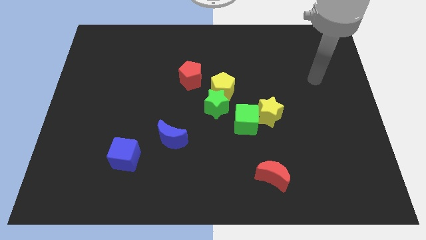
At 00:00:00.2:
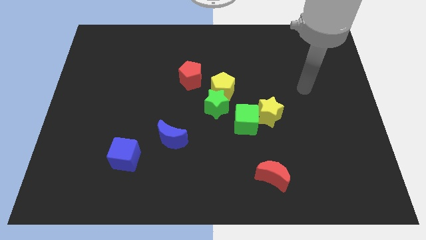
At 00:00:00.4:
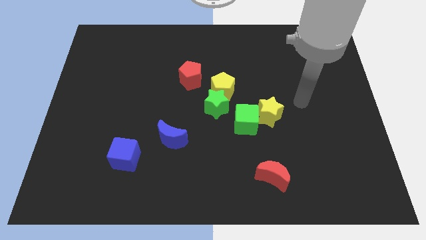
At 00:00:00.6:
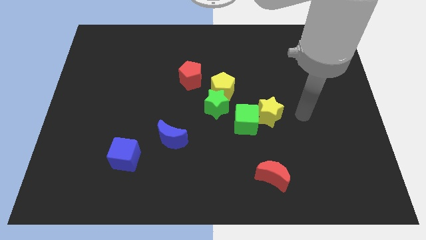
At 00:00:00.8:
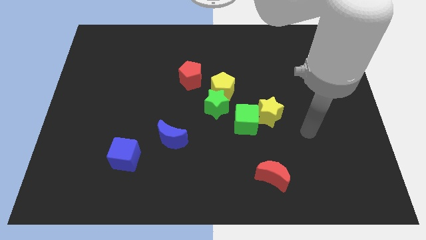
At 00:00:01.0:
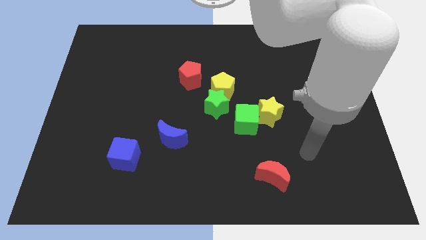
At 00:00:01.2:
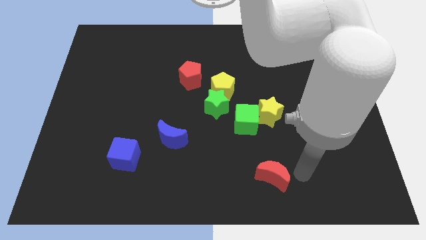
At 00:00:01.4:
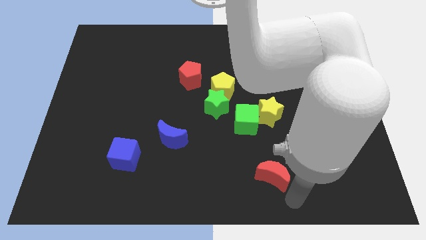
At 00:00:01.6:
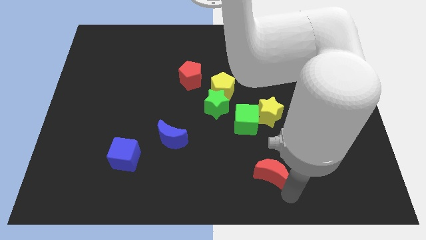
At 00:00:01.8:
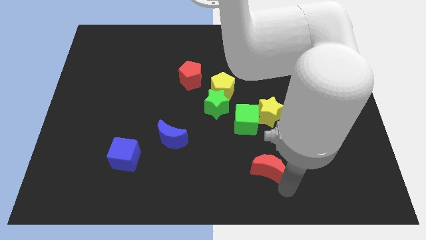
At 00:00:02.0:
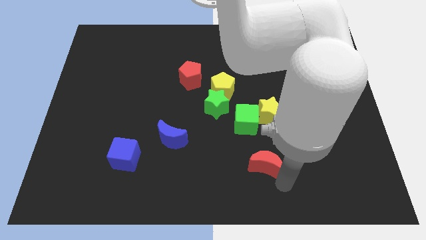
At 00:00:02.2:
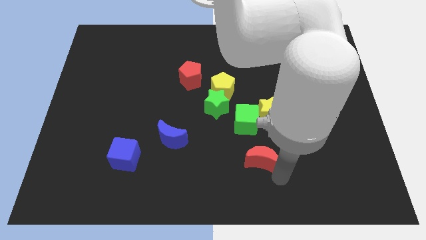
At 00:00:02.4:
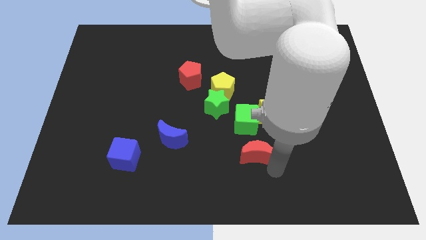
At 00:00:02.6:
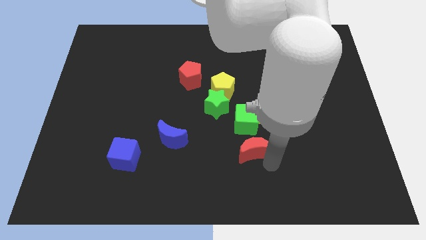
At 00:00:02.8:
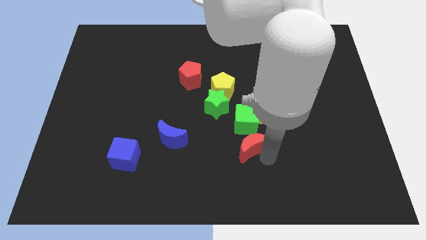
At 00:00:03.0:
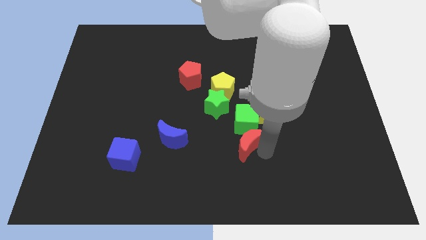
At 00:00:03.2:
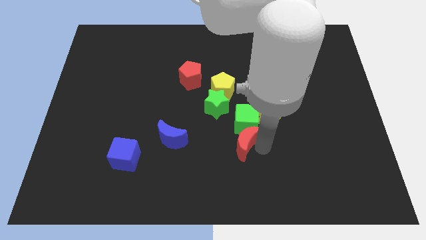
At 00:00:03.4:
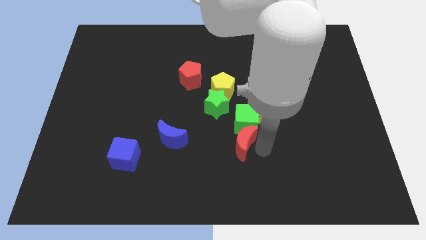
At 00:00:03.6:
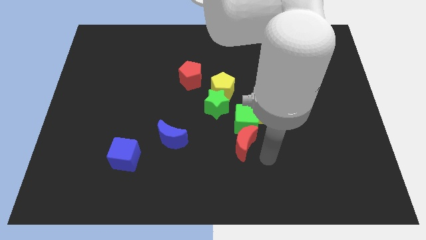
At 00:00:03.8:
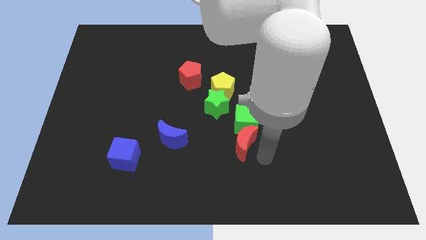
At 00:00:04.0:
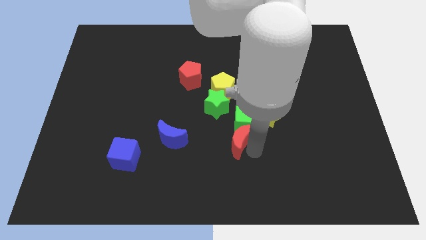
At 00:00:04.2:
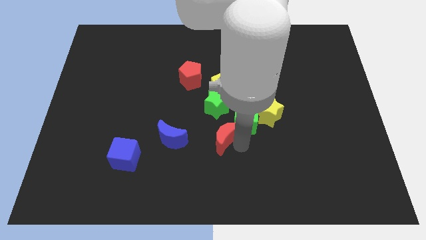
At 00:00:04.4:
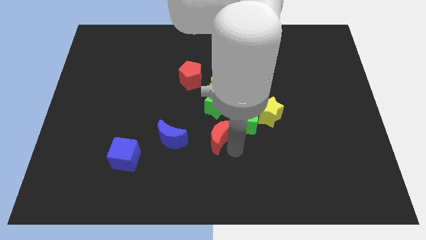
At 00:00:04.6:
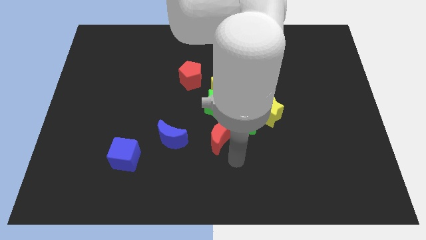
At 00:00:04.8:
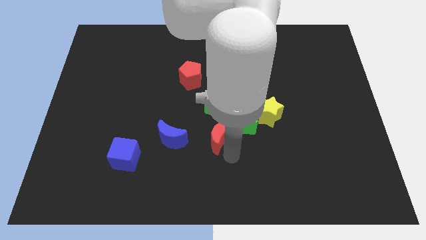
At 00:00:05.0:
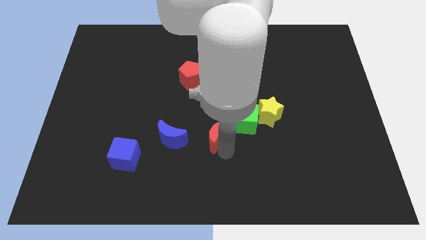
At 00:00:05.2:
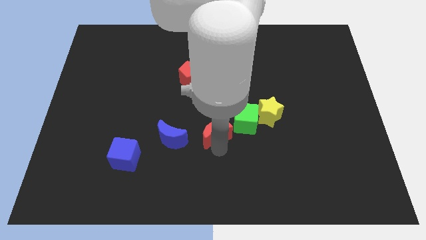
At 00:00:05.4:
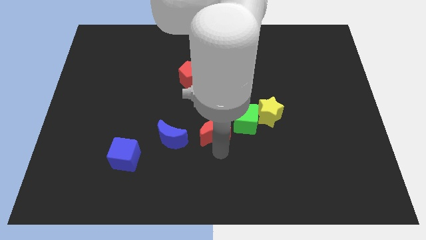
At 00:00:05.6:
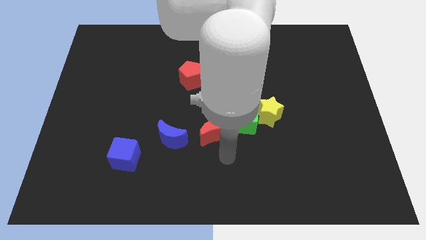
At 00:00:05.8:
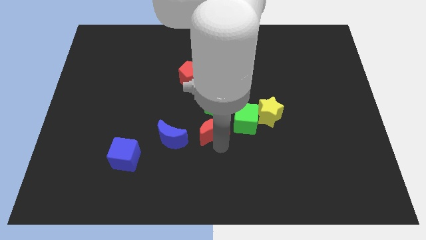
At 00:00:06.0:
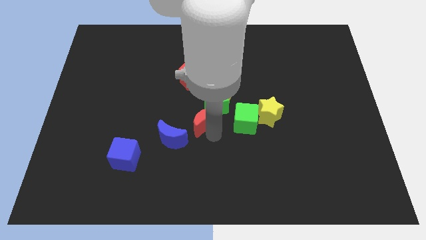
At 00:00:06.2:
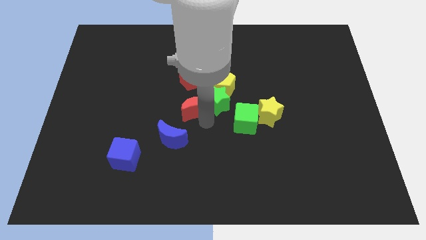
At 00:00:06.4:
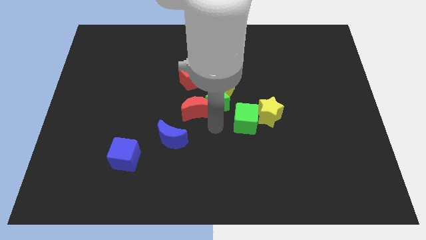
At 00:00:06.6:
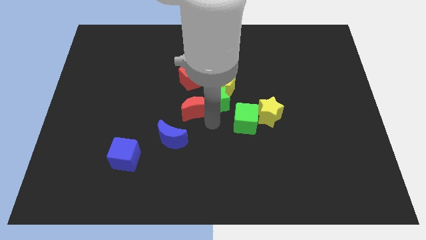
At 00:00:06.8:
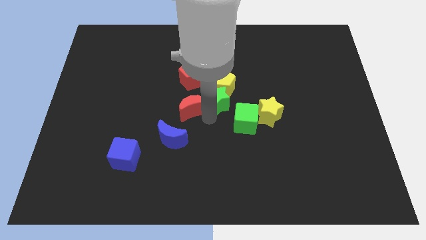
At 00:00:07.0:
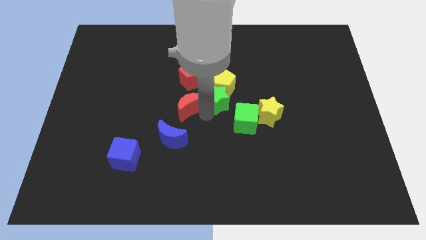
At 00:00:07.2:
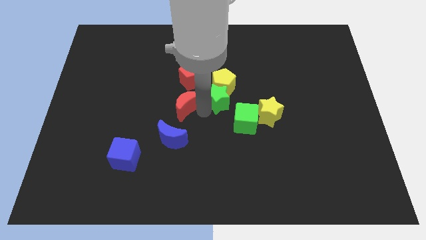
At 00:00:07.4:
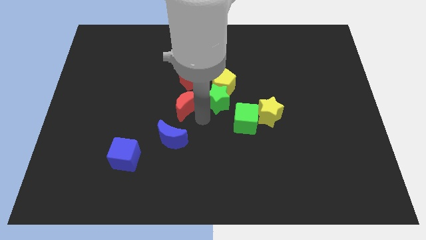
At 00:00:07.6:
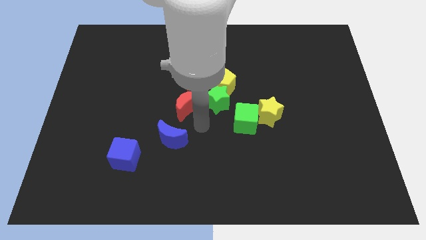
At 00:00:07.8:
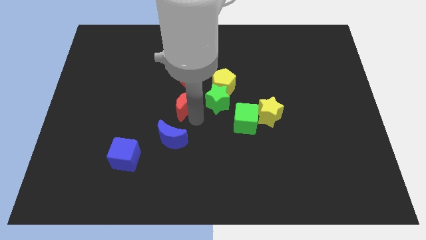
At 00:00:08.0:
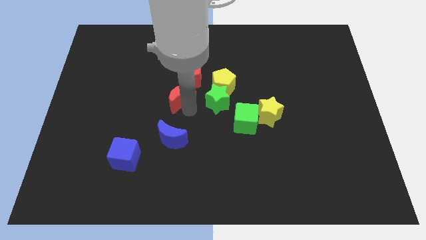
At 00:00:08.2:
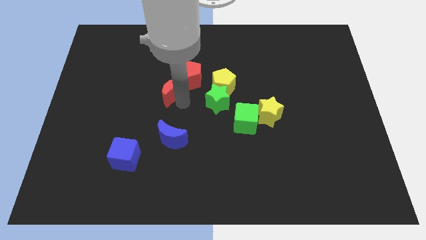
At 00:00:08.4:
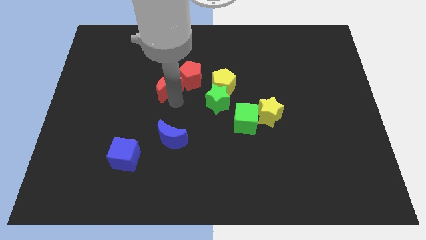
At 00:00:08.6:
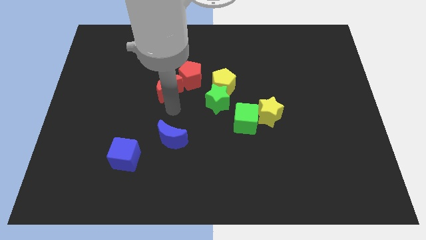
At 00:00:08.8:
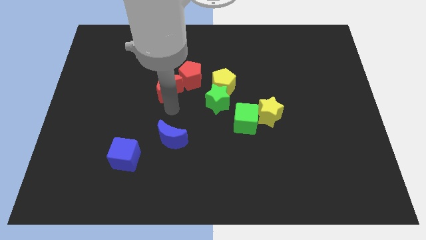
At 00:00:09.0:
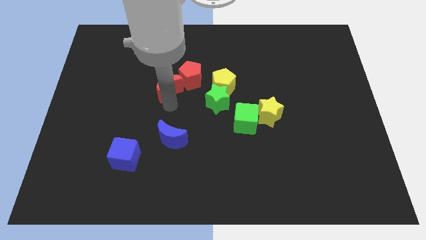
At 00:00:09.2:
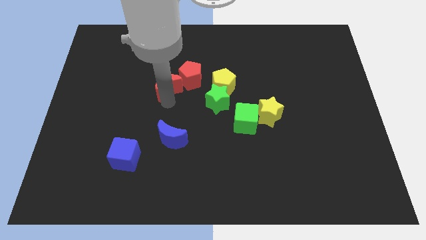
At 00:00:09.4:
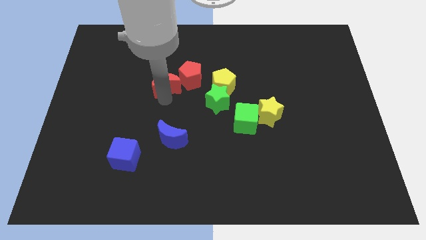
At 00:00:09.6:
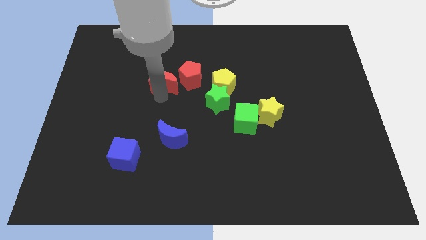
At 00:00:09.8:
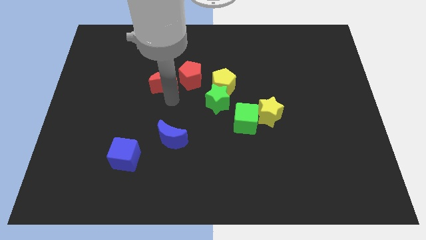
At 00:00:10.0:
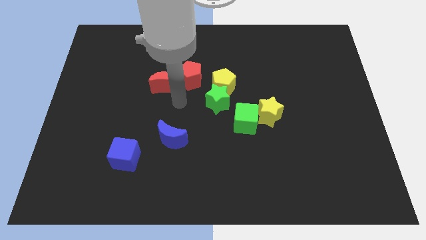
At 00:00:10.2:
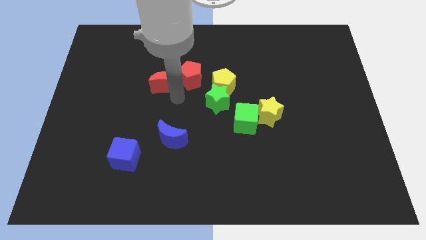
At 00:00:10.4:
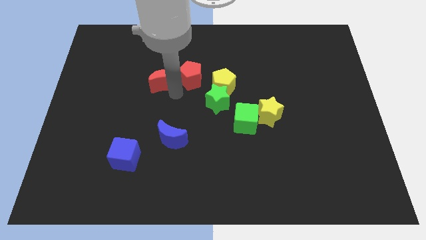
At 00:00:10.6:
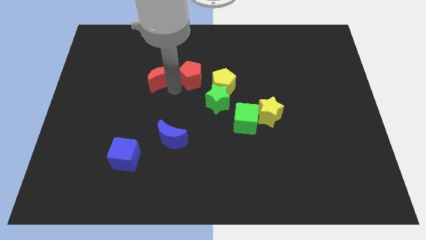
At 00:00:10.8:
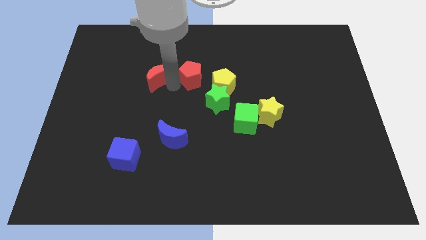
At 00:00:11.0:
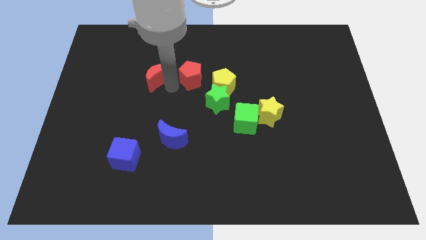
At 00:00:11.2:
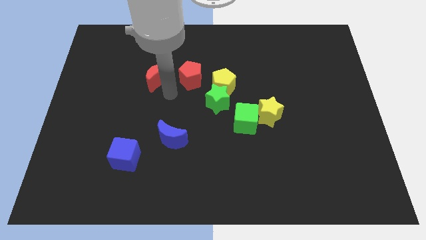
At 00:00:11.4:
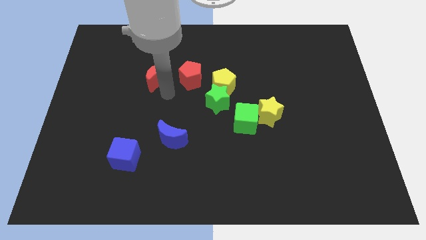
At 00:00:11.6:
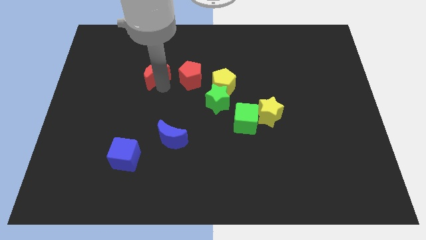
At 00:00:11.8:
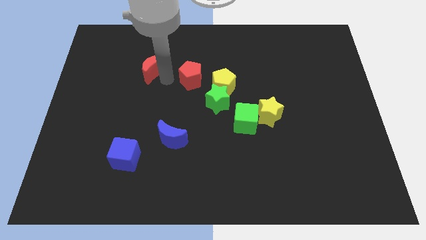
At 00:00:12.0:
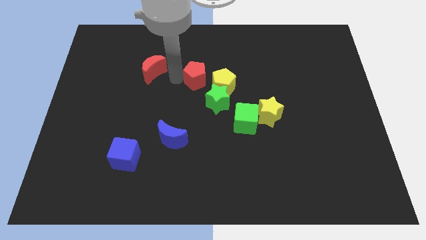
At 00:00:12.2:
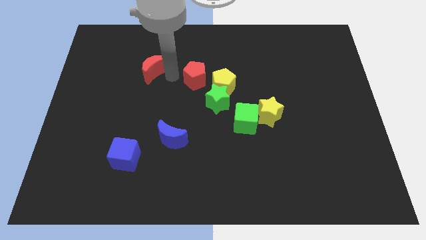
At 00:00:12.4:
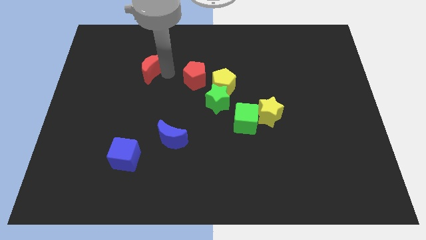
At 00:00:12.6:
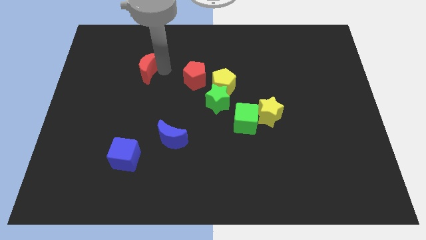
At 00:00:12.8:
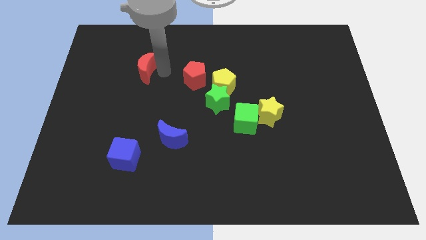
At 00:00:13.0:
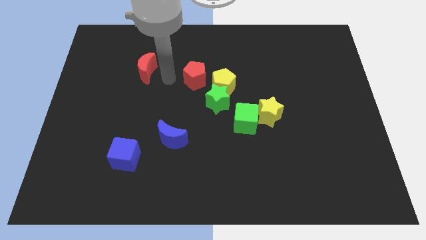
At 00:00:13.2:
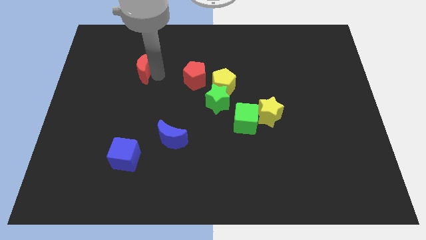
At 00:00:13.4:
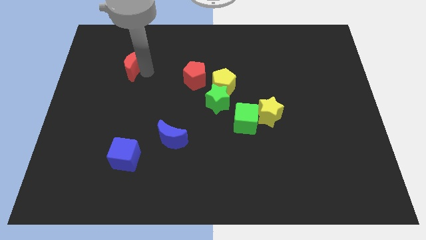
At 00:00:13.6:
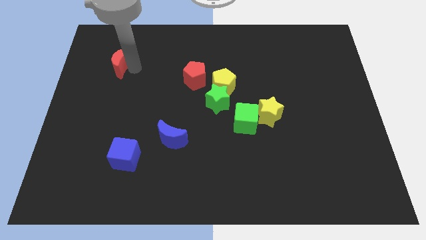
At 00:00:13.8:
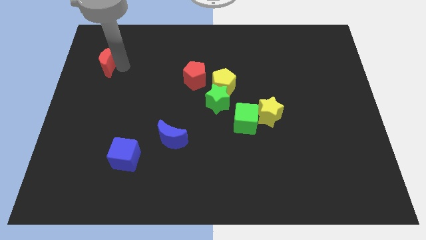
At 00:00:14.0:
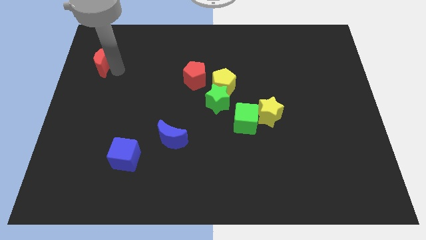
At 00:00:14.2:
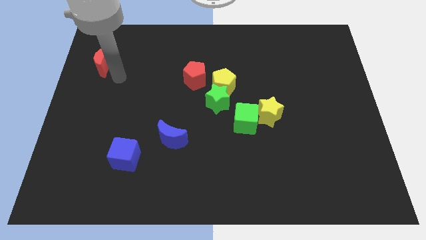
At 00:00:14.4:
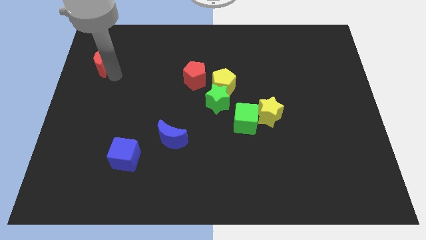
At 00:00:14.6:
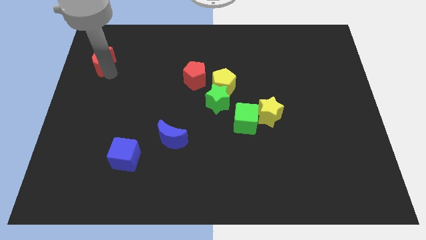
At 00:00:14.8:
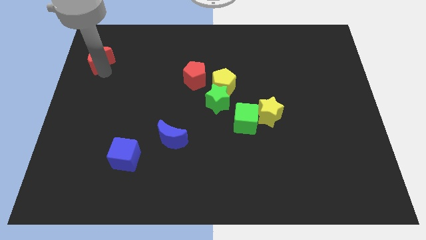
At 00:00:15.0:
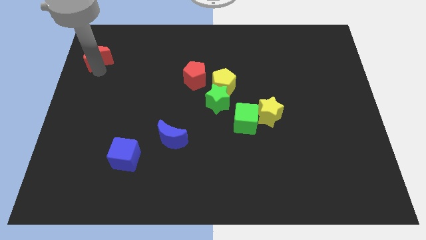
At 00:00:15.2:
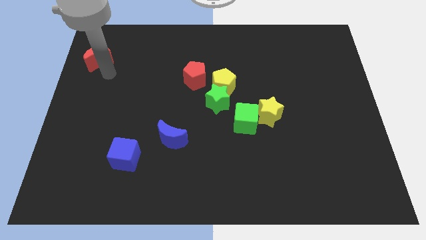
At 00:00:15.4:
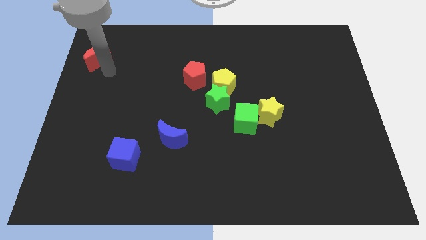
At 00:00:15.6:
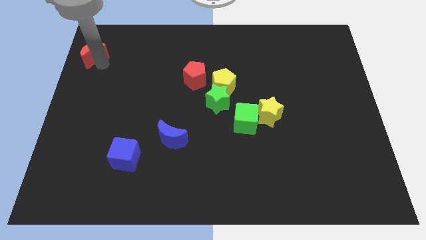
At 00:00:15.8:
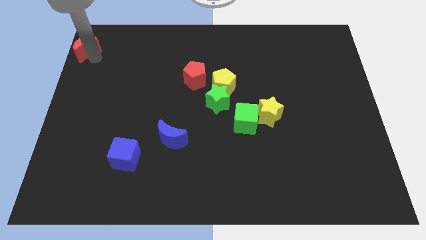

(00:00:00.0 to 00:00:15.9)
move the red moon to the upper left corner
